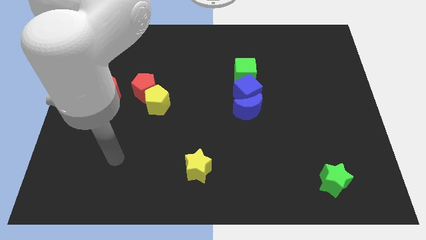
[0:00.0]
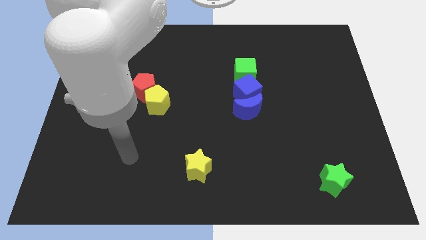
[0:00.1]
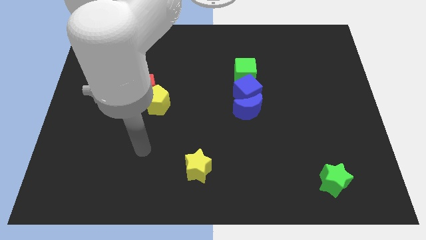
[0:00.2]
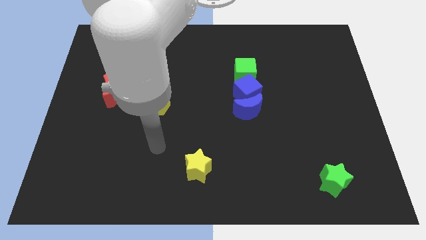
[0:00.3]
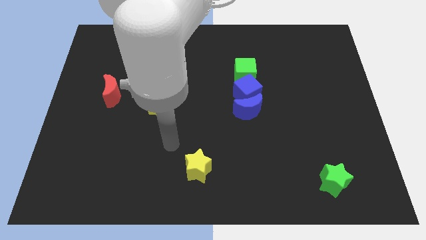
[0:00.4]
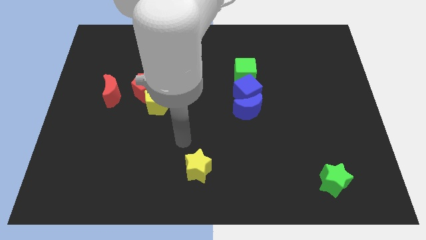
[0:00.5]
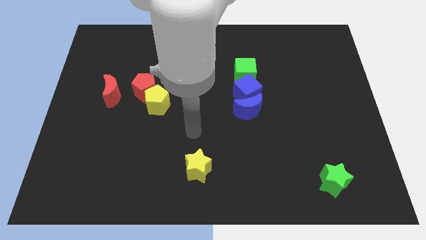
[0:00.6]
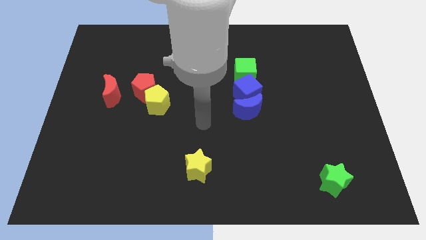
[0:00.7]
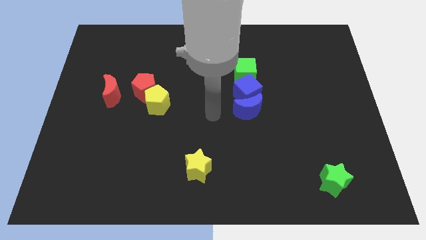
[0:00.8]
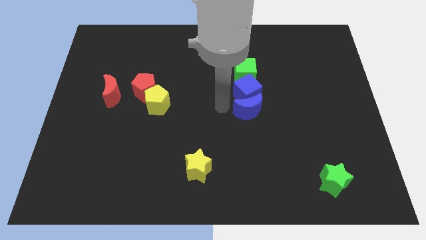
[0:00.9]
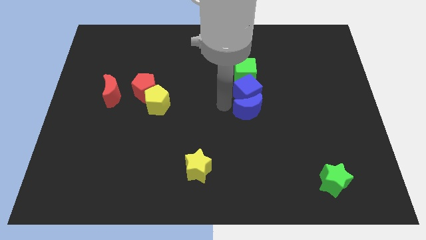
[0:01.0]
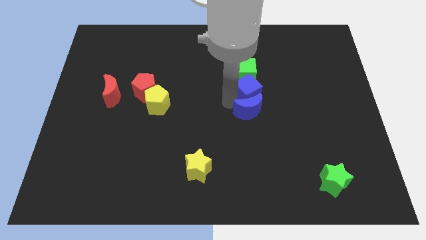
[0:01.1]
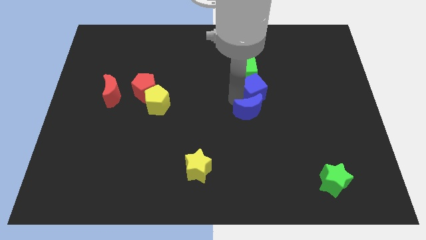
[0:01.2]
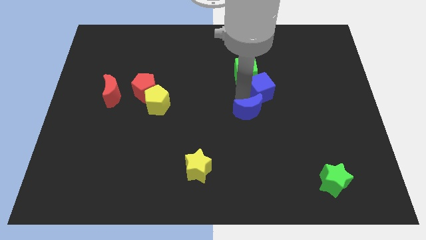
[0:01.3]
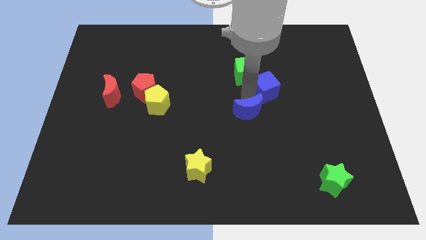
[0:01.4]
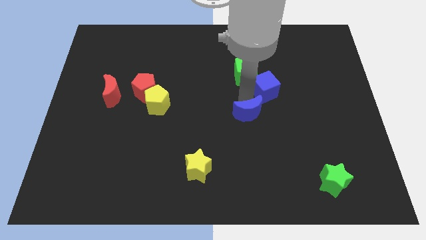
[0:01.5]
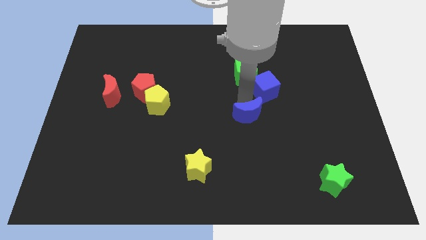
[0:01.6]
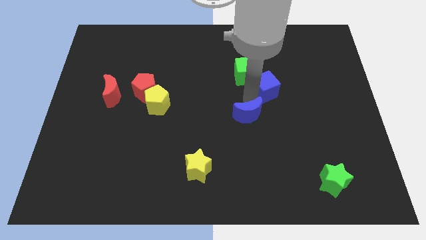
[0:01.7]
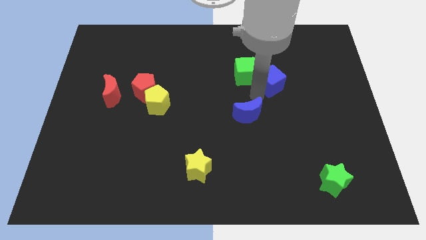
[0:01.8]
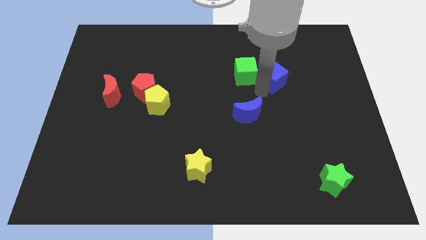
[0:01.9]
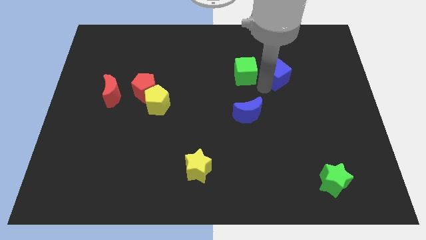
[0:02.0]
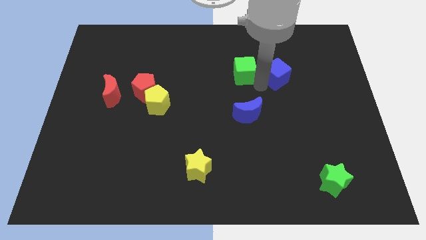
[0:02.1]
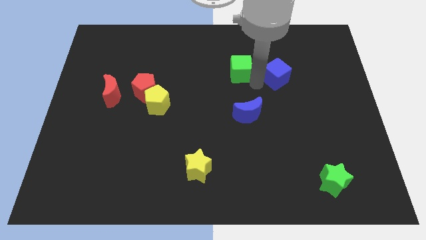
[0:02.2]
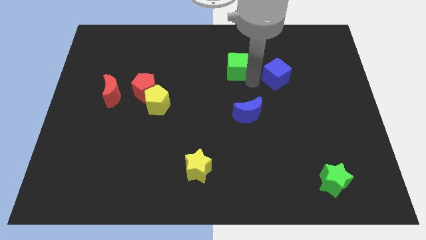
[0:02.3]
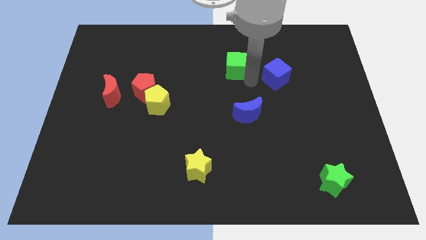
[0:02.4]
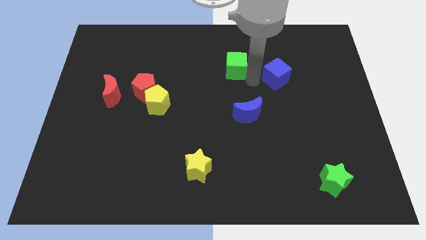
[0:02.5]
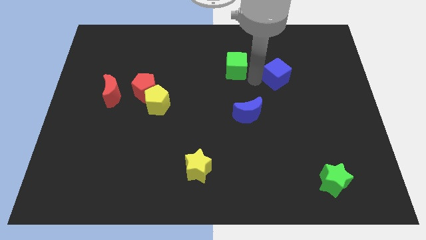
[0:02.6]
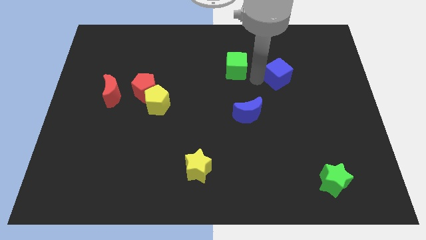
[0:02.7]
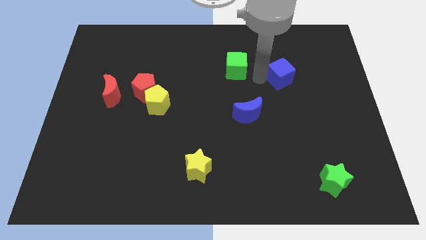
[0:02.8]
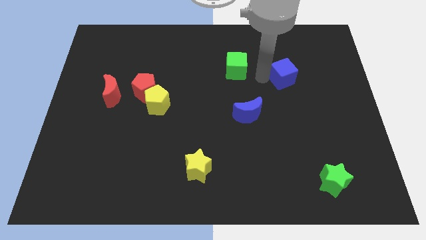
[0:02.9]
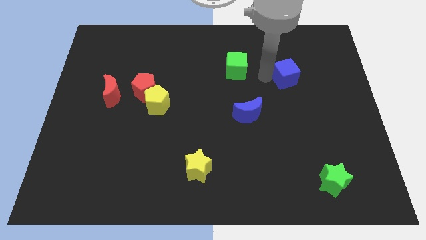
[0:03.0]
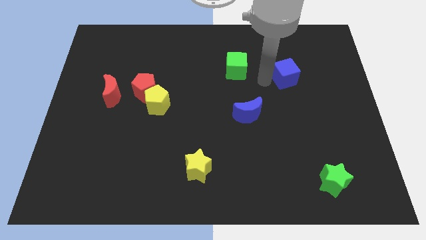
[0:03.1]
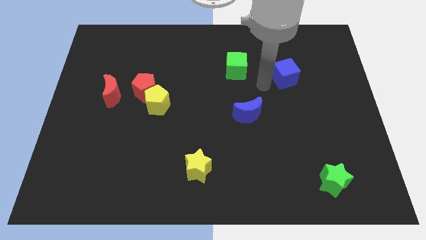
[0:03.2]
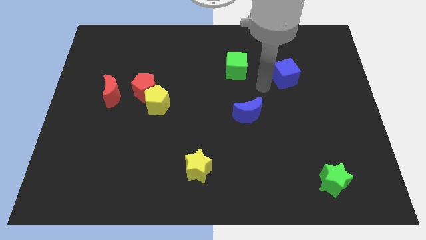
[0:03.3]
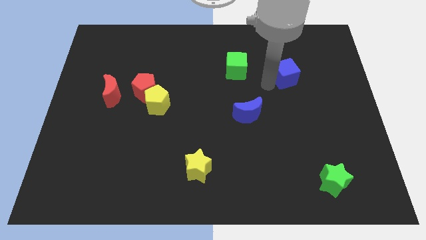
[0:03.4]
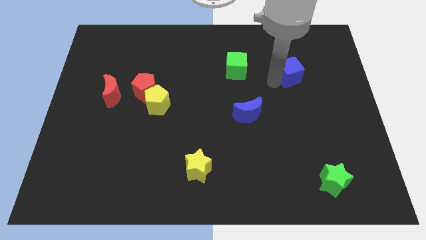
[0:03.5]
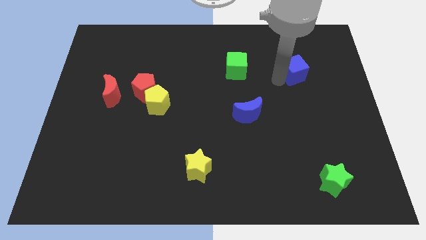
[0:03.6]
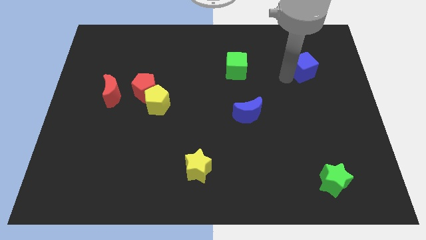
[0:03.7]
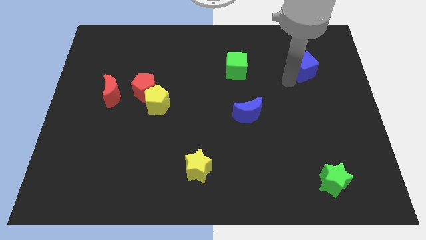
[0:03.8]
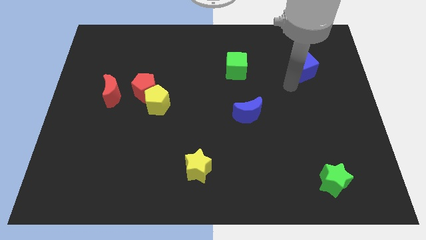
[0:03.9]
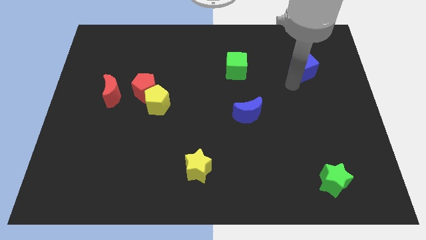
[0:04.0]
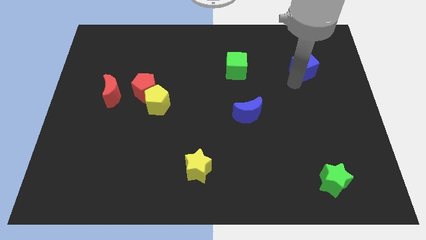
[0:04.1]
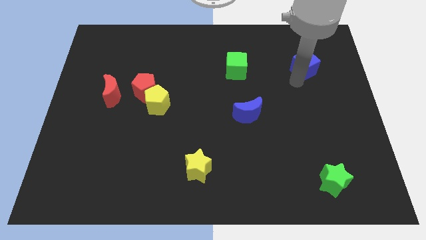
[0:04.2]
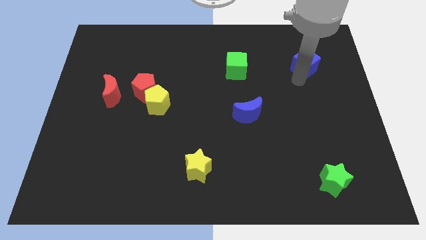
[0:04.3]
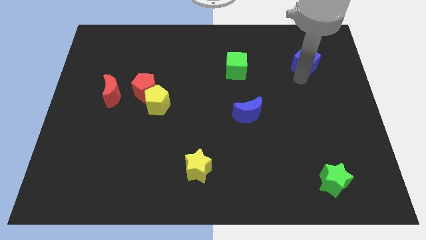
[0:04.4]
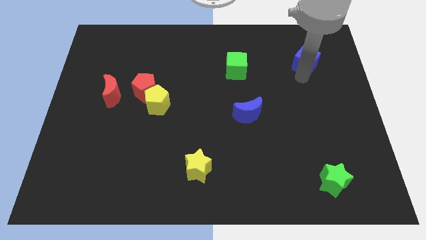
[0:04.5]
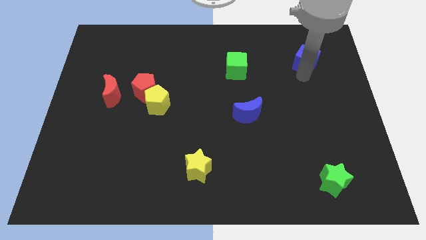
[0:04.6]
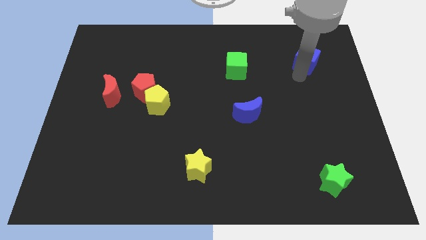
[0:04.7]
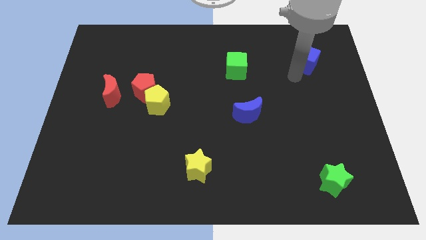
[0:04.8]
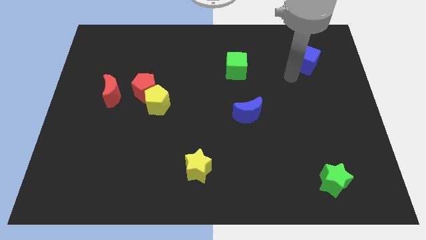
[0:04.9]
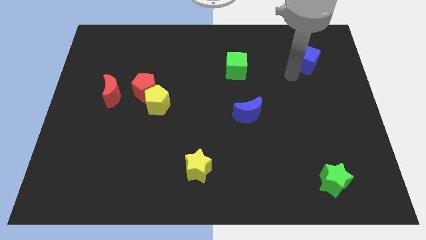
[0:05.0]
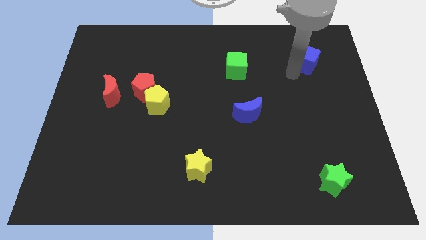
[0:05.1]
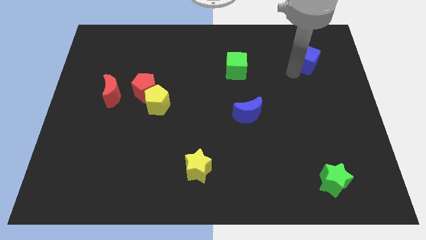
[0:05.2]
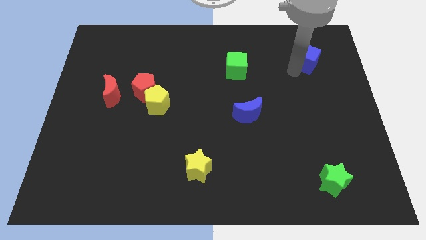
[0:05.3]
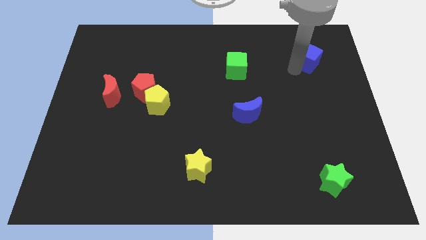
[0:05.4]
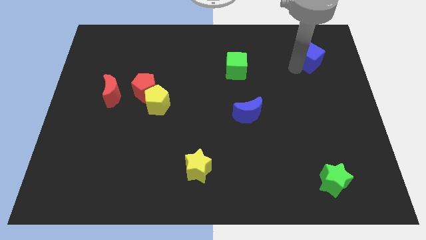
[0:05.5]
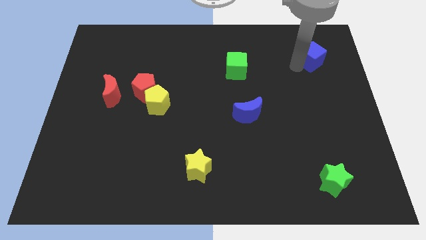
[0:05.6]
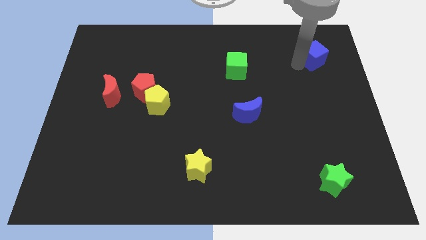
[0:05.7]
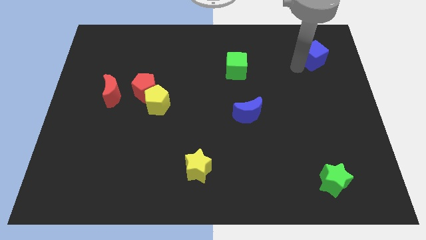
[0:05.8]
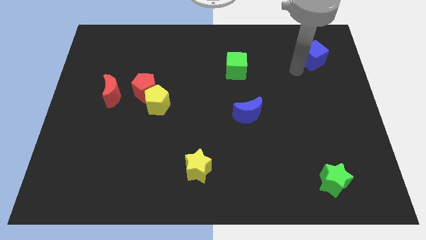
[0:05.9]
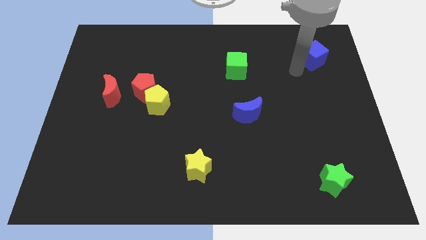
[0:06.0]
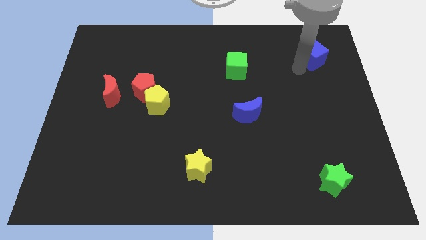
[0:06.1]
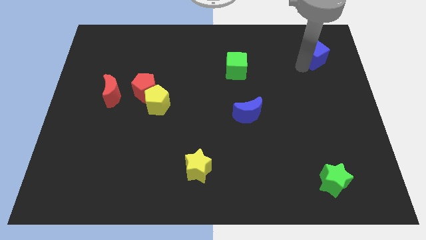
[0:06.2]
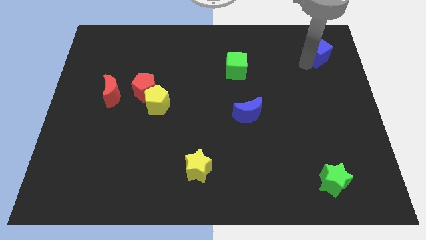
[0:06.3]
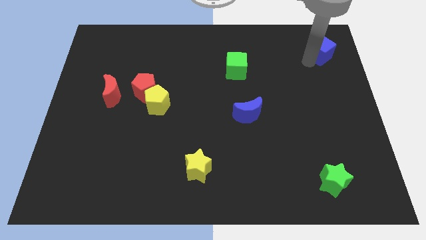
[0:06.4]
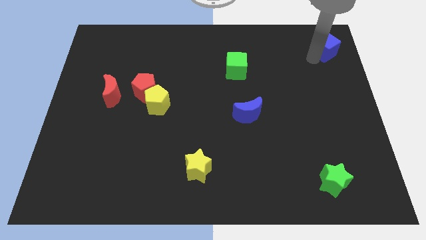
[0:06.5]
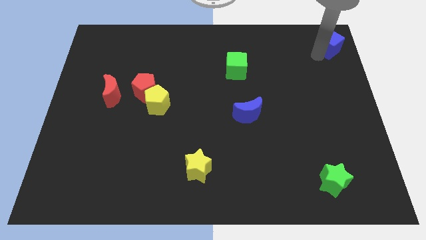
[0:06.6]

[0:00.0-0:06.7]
push the blue cube to the top right corner
